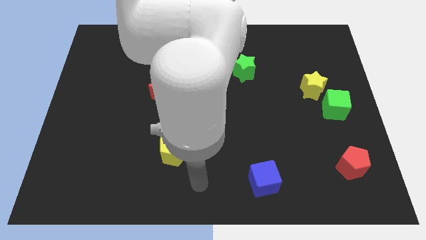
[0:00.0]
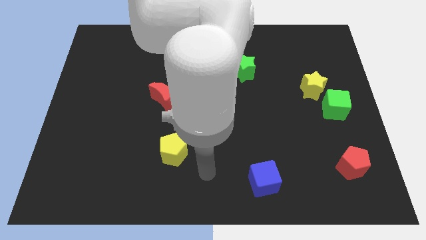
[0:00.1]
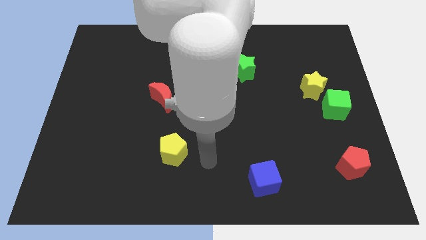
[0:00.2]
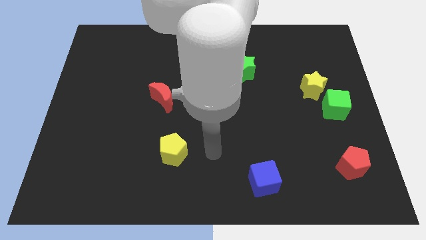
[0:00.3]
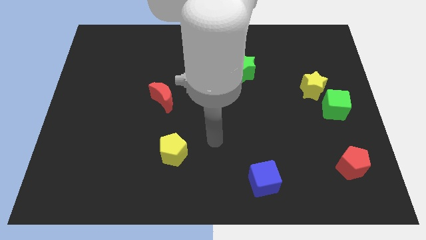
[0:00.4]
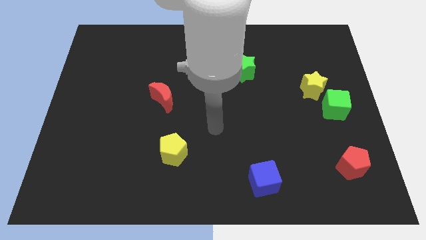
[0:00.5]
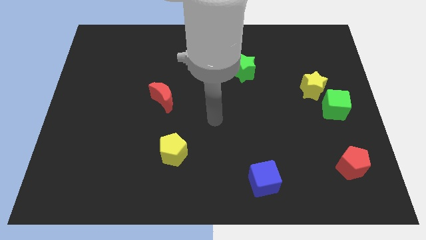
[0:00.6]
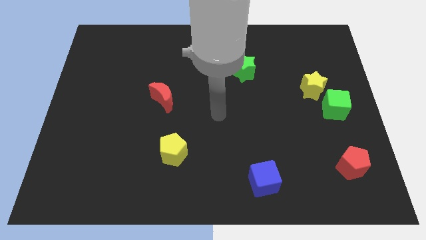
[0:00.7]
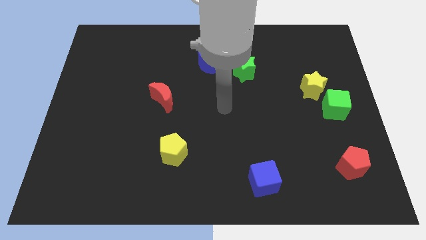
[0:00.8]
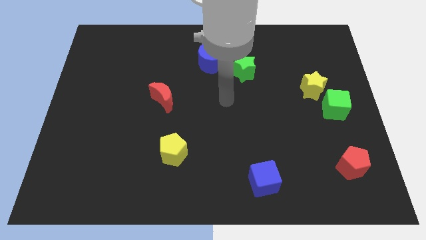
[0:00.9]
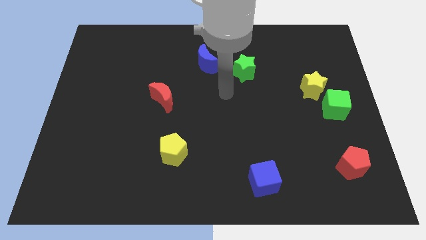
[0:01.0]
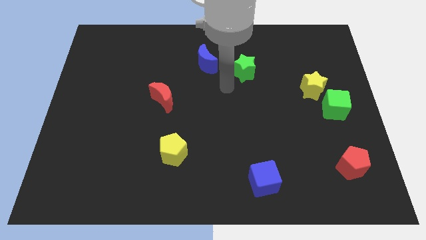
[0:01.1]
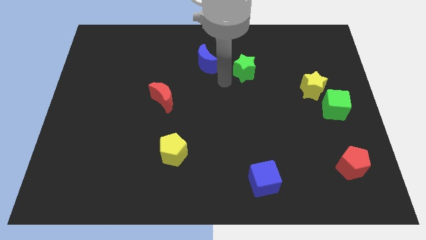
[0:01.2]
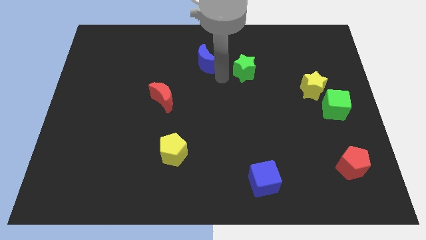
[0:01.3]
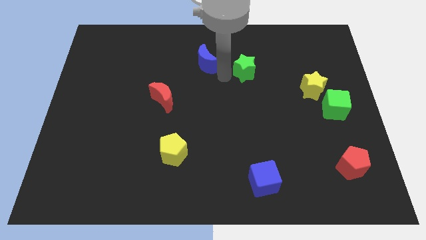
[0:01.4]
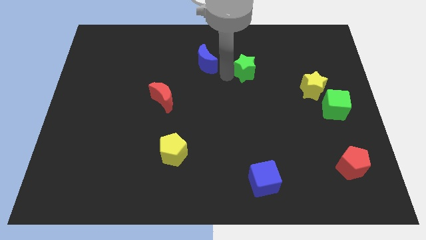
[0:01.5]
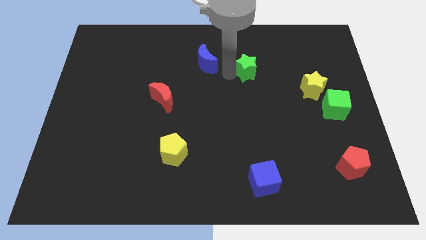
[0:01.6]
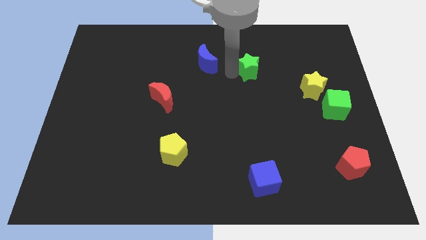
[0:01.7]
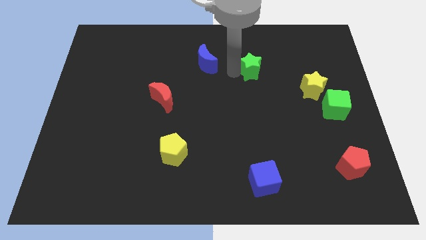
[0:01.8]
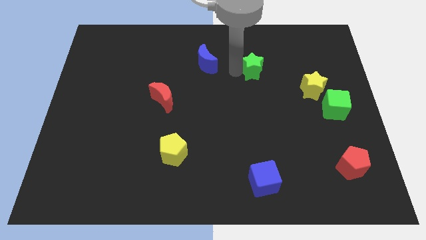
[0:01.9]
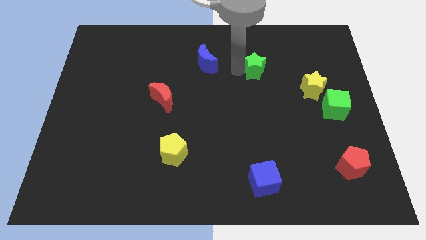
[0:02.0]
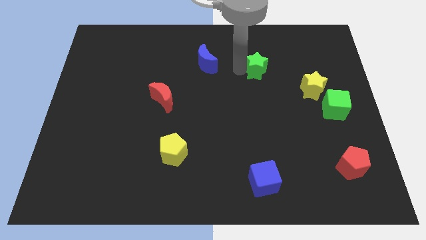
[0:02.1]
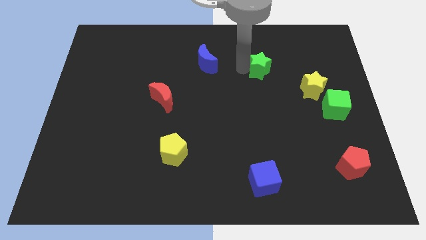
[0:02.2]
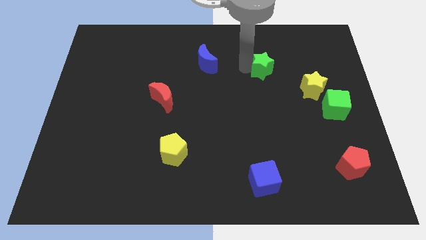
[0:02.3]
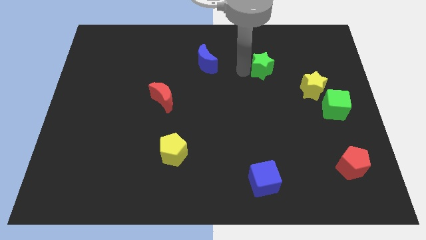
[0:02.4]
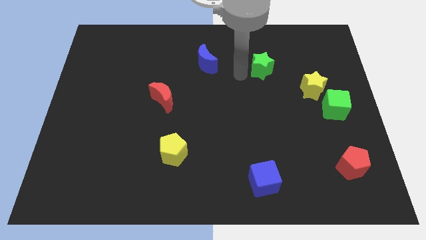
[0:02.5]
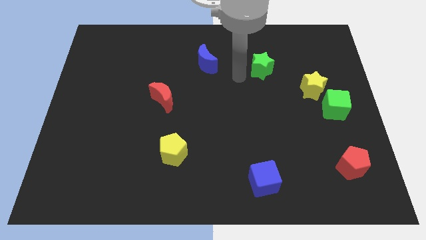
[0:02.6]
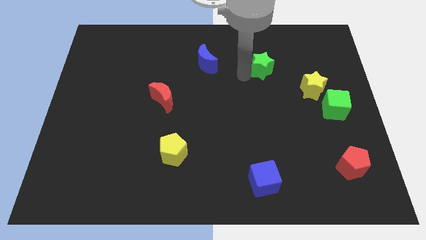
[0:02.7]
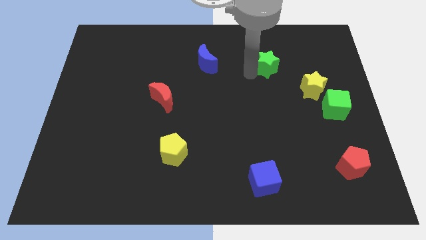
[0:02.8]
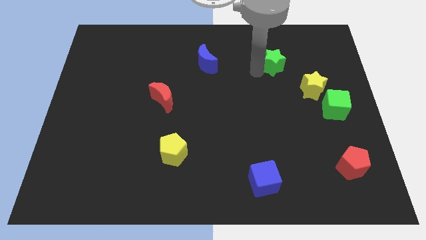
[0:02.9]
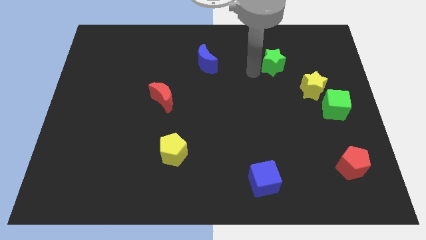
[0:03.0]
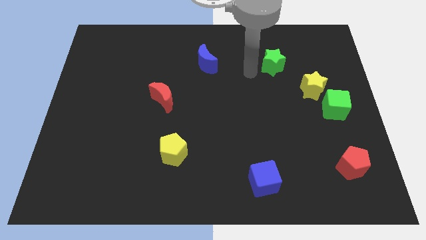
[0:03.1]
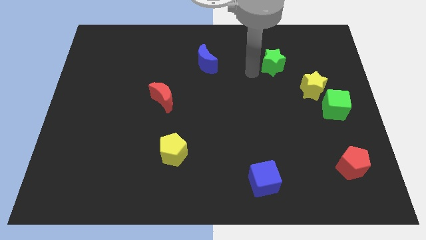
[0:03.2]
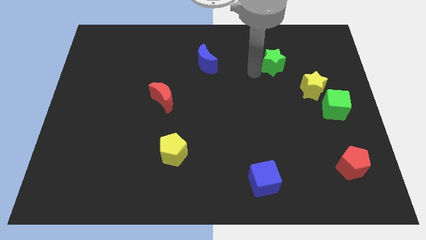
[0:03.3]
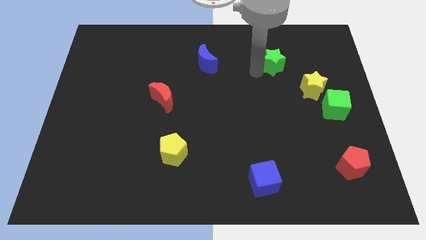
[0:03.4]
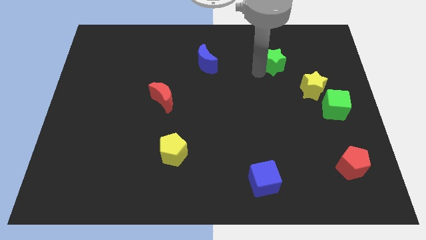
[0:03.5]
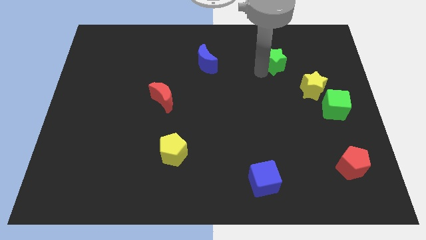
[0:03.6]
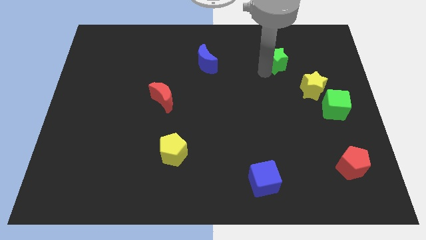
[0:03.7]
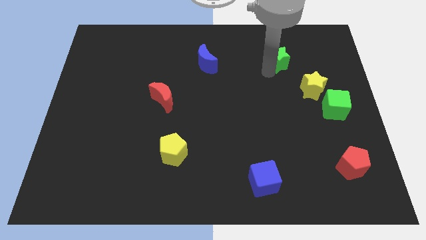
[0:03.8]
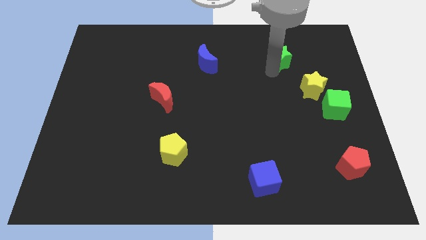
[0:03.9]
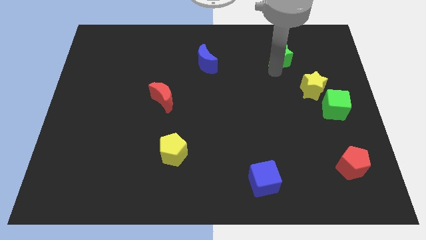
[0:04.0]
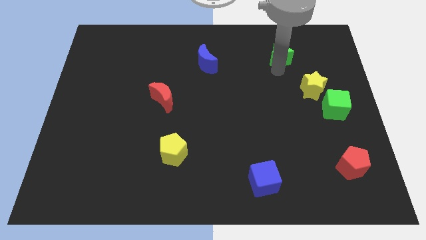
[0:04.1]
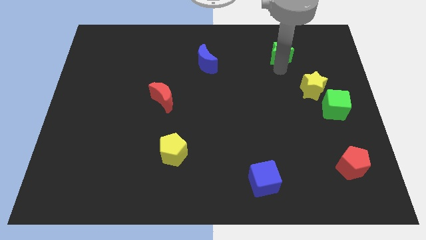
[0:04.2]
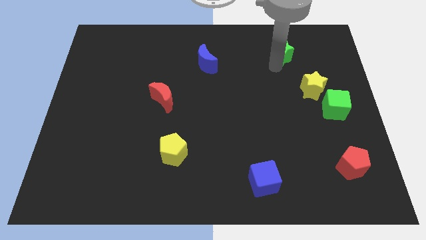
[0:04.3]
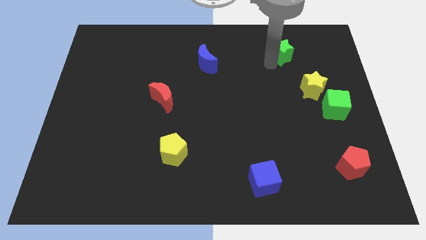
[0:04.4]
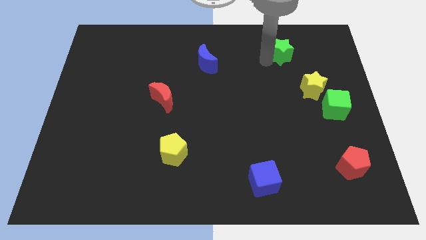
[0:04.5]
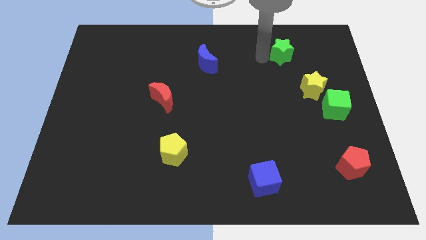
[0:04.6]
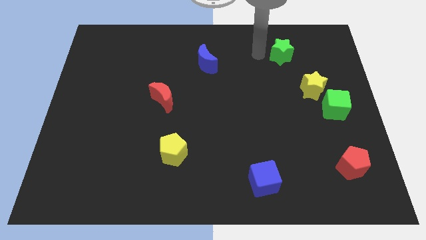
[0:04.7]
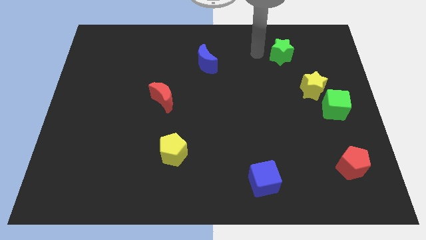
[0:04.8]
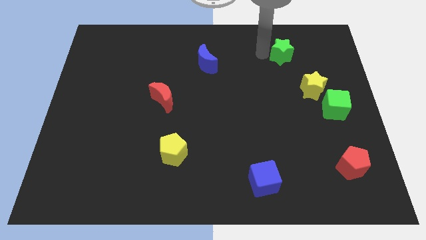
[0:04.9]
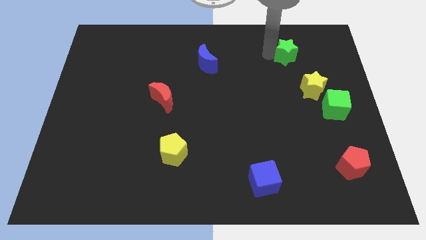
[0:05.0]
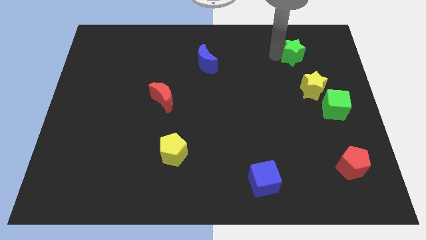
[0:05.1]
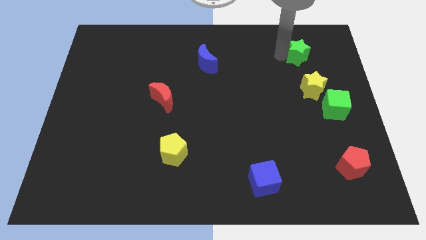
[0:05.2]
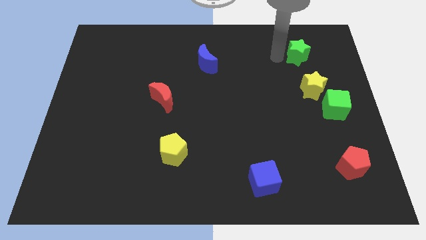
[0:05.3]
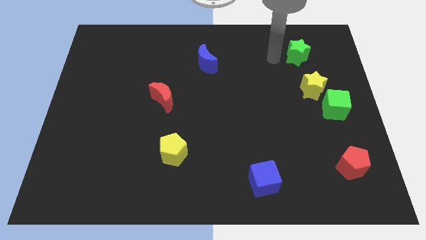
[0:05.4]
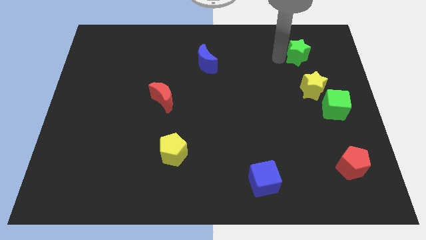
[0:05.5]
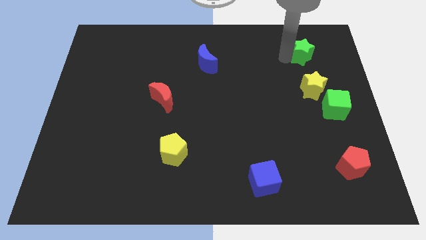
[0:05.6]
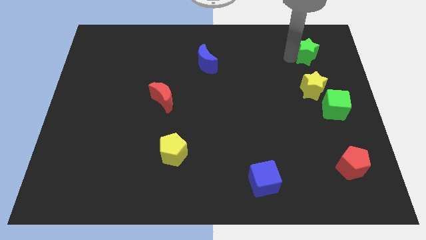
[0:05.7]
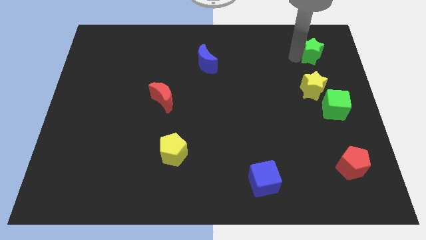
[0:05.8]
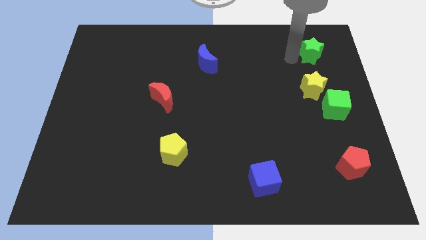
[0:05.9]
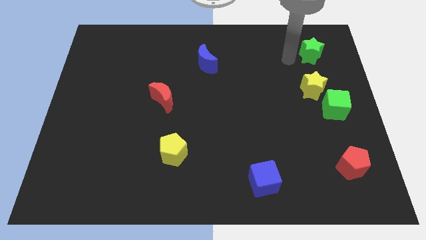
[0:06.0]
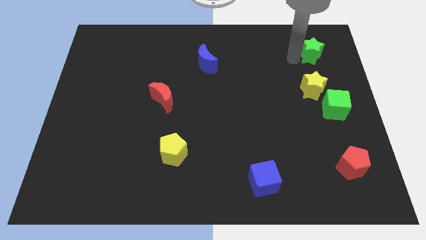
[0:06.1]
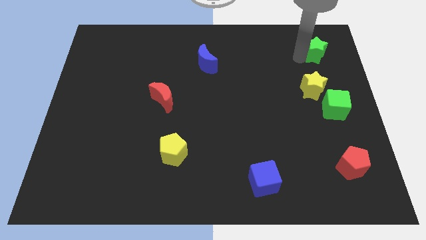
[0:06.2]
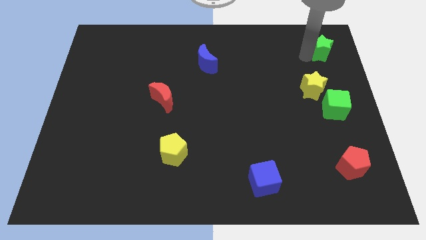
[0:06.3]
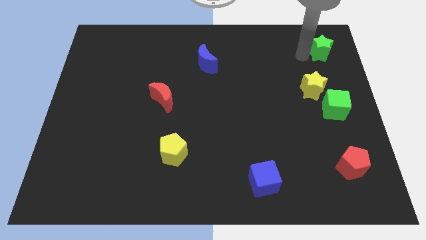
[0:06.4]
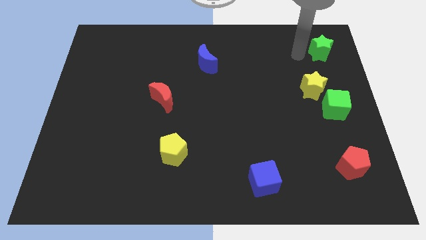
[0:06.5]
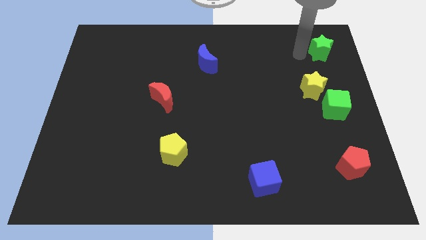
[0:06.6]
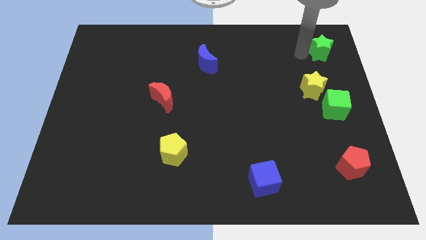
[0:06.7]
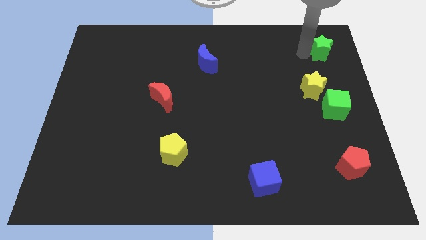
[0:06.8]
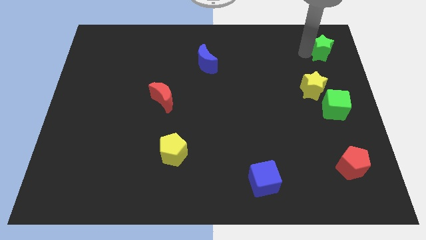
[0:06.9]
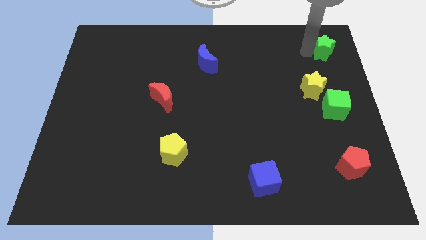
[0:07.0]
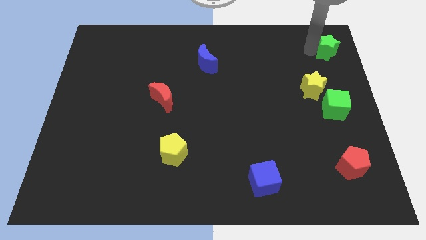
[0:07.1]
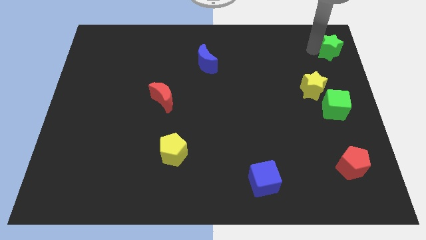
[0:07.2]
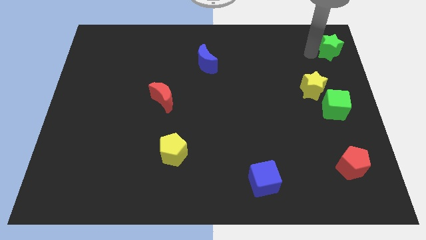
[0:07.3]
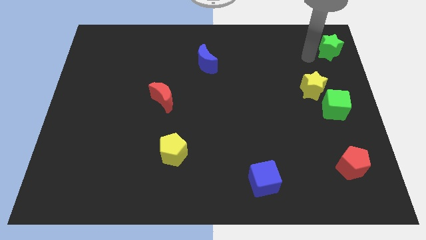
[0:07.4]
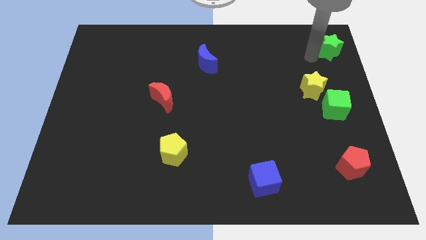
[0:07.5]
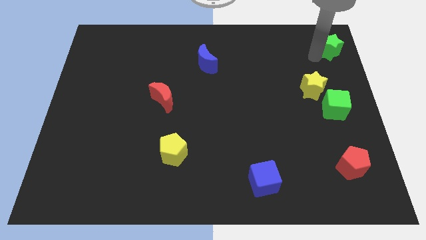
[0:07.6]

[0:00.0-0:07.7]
push the green star to the top right of the board
